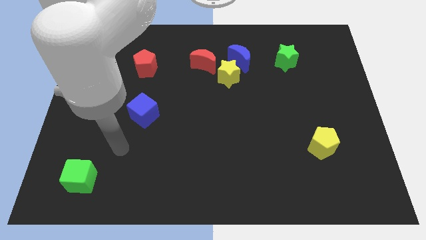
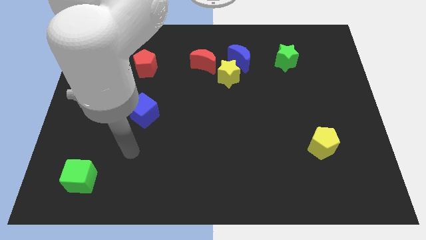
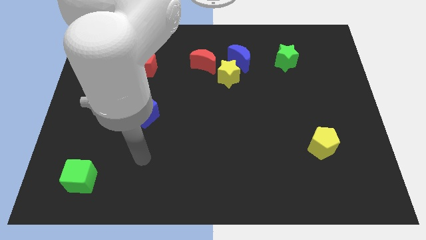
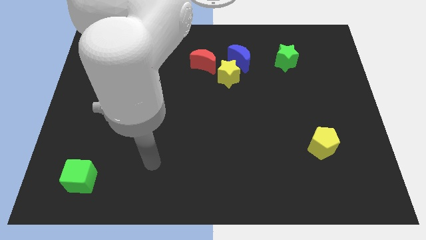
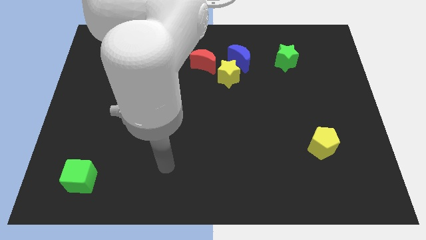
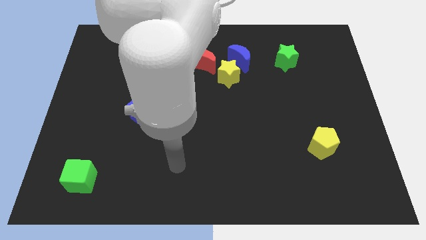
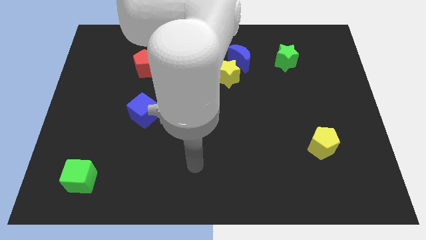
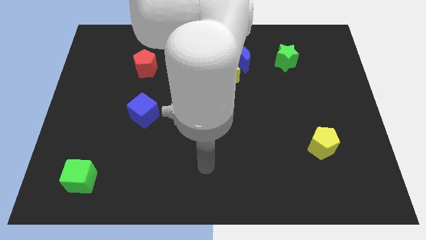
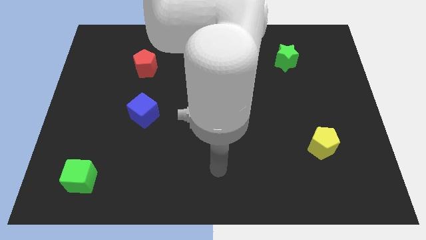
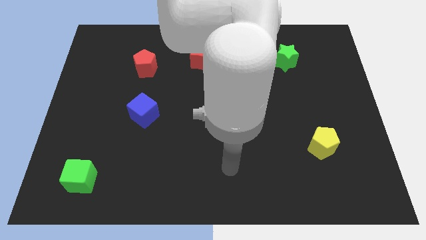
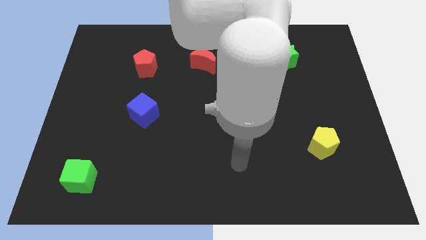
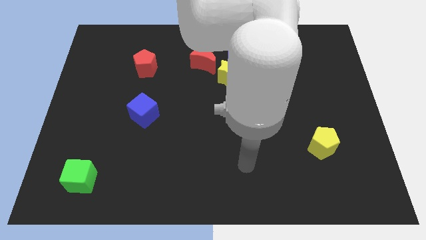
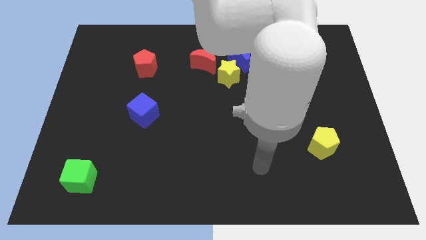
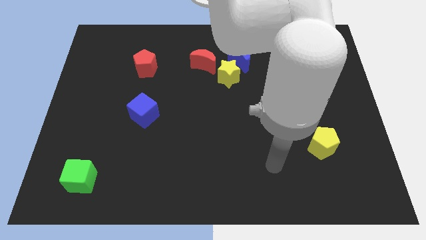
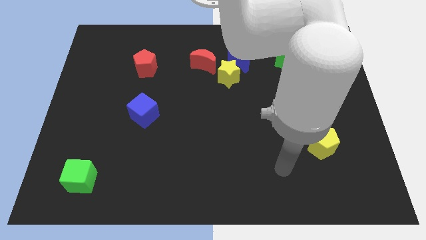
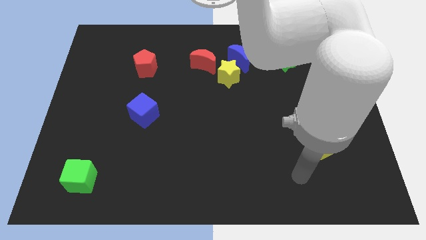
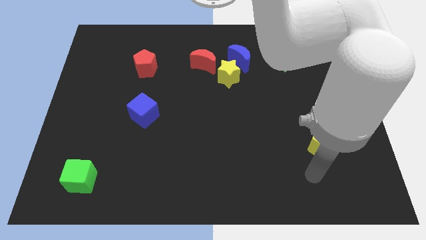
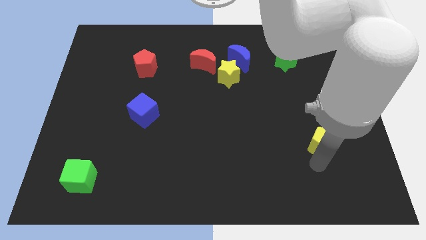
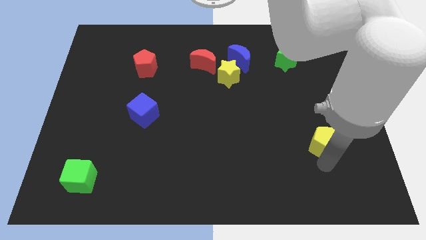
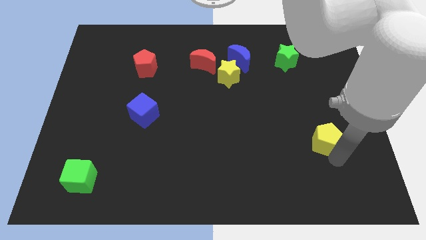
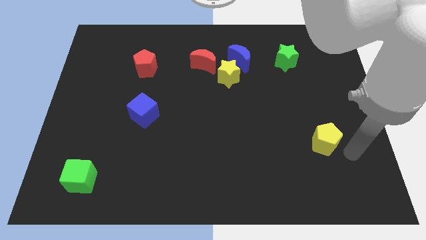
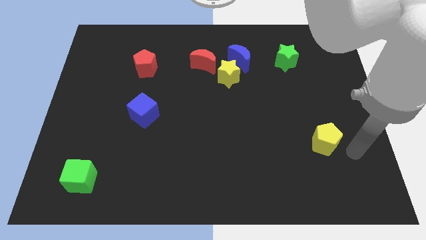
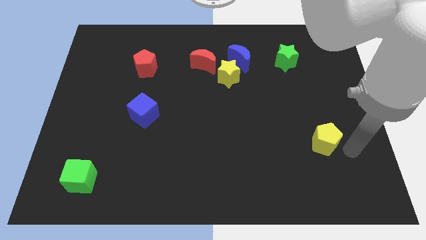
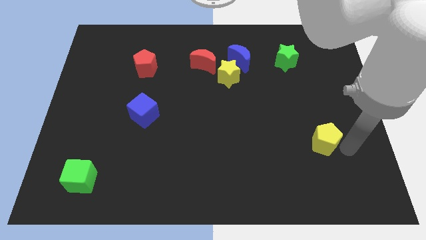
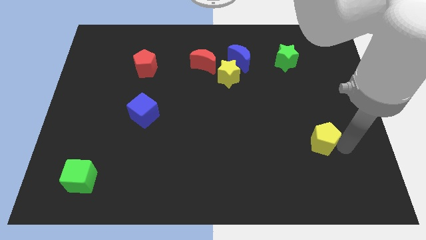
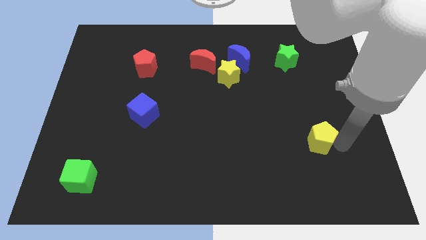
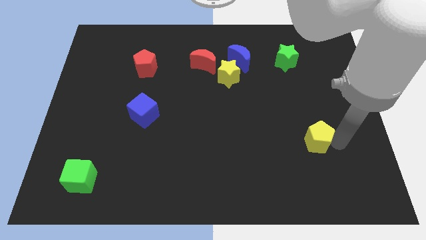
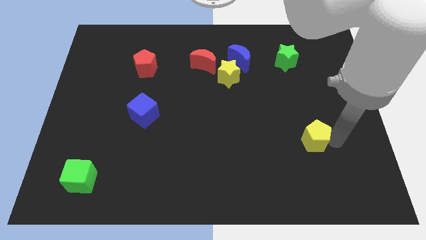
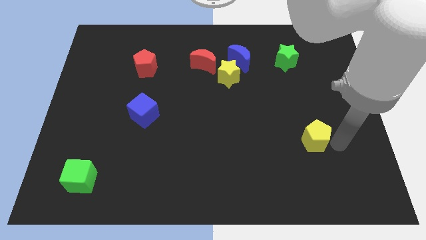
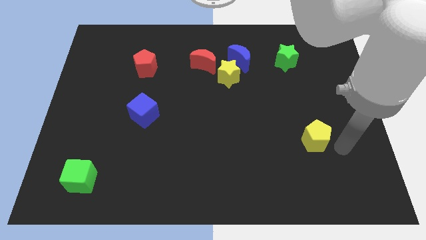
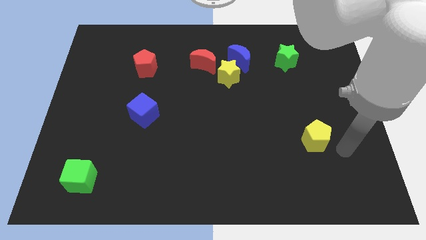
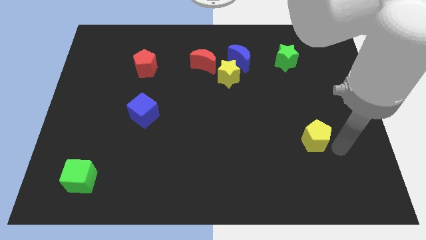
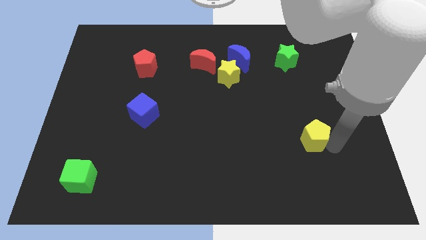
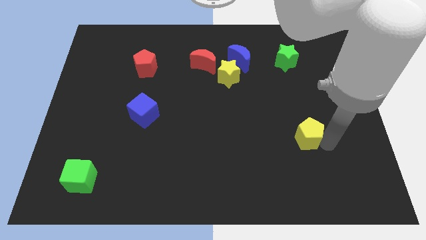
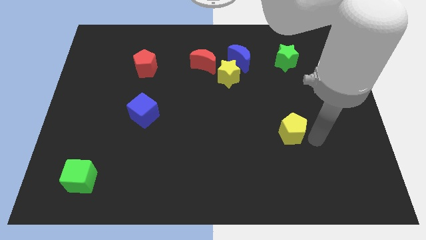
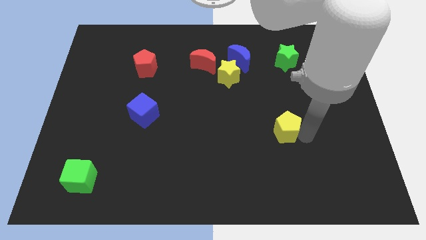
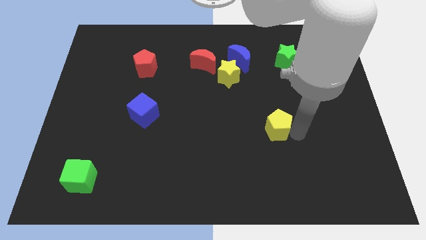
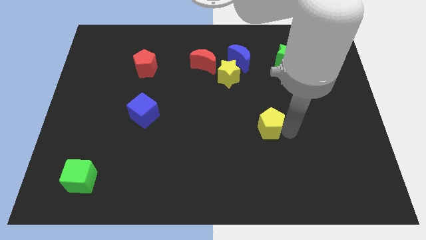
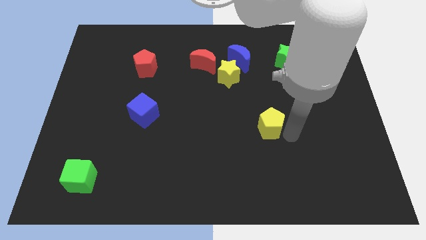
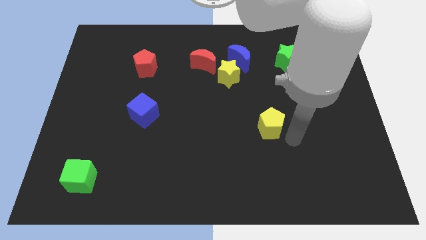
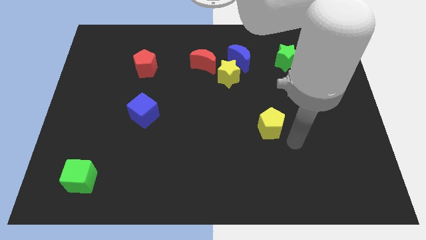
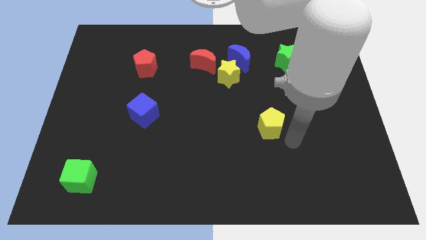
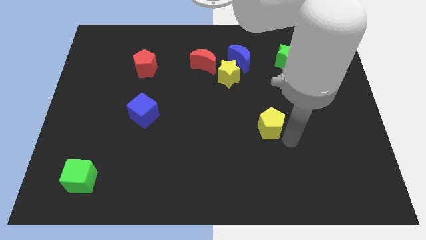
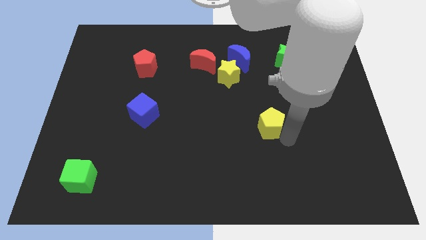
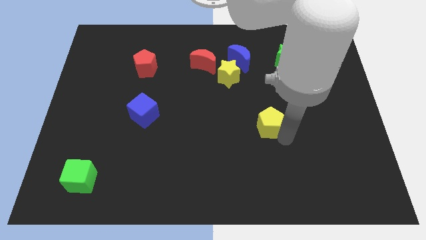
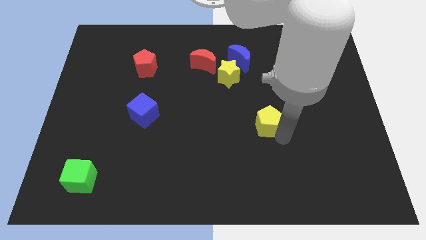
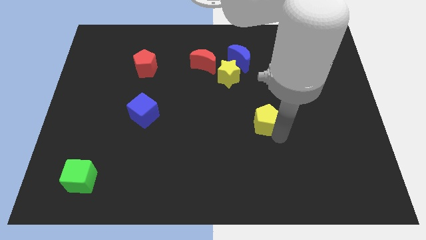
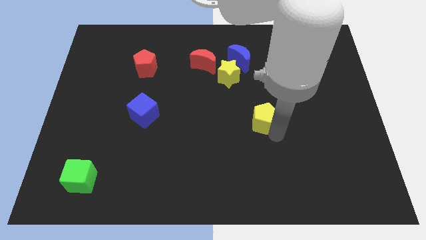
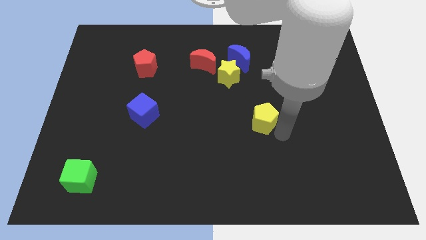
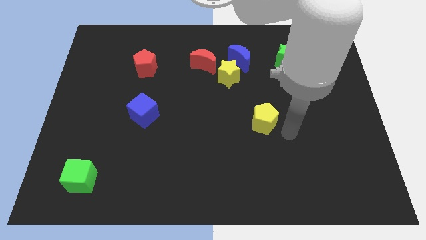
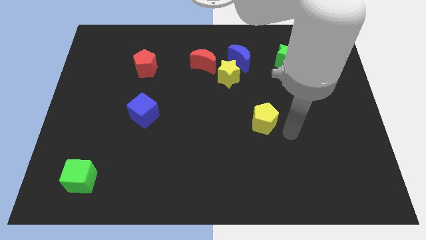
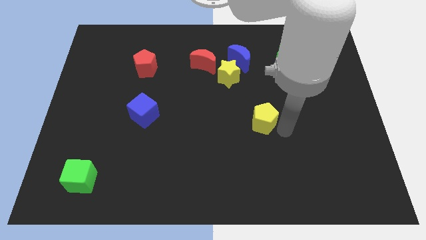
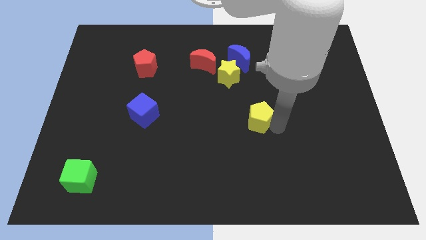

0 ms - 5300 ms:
put the yellow pentagon to the center of the board

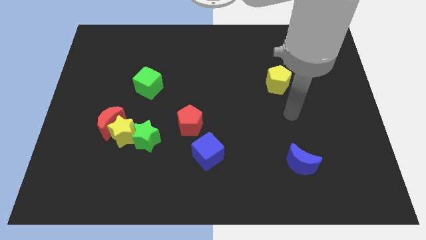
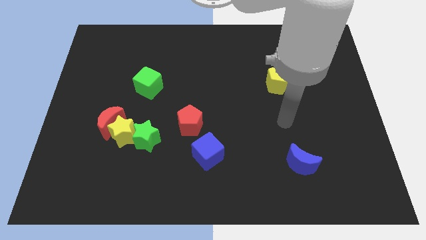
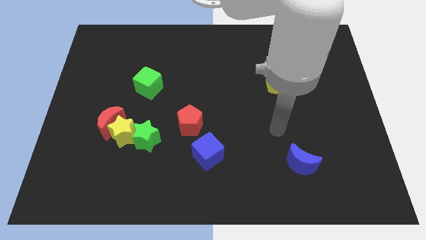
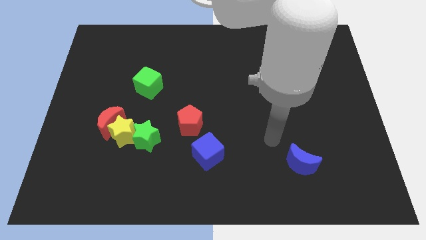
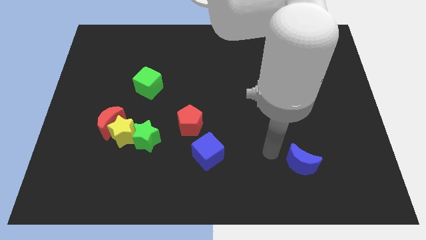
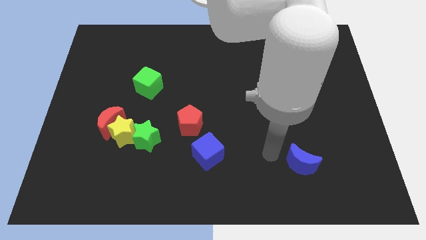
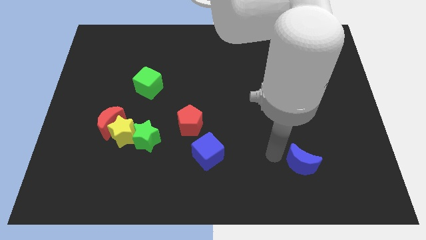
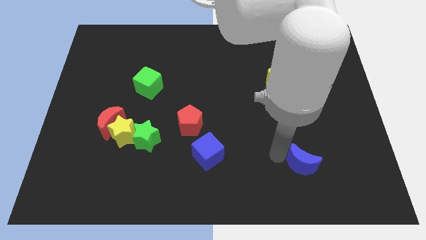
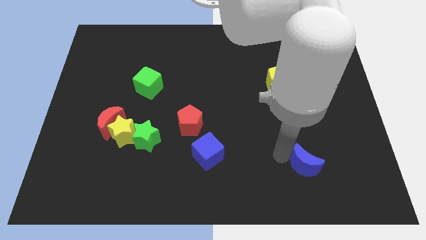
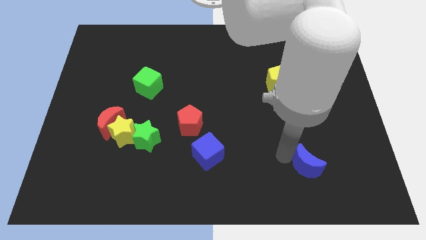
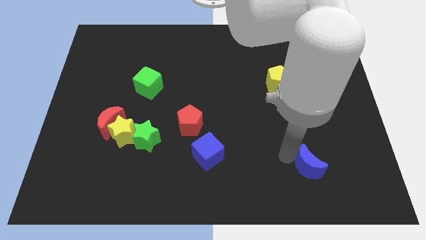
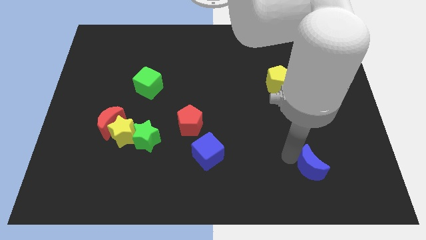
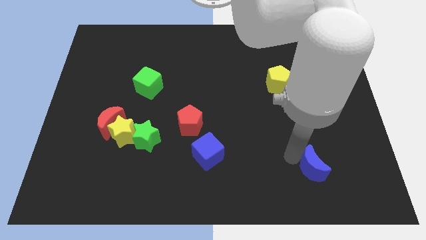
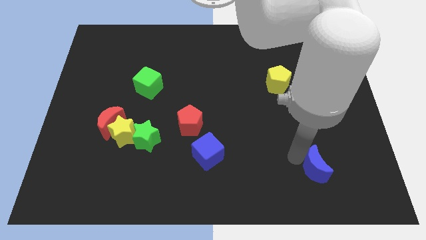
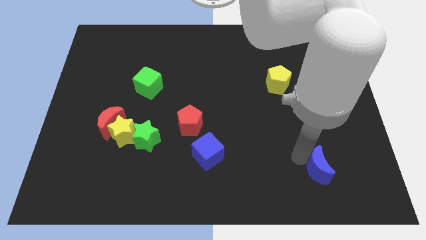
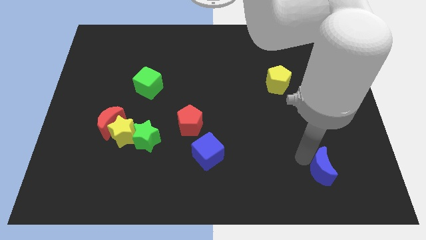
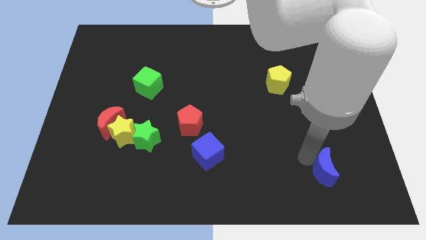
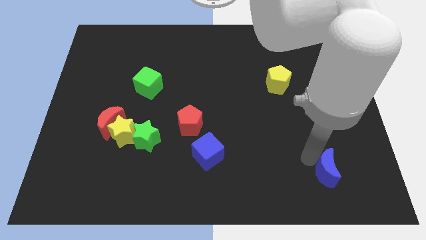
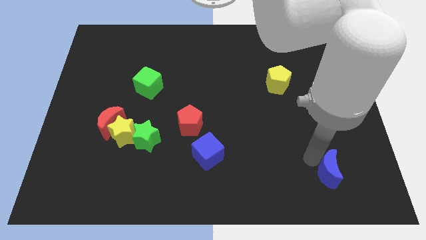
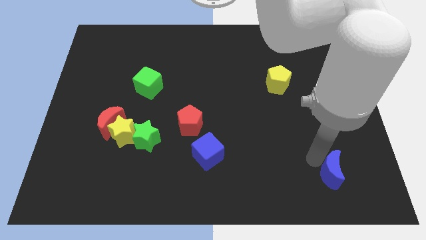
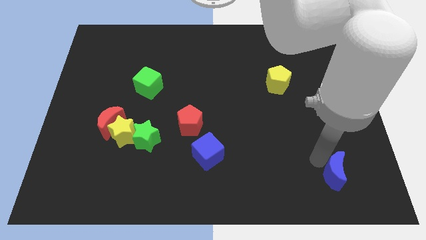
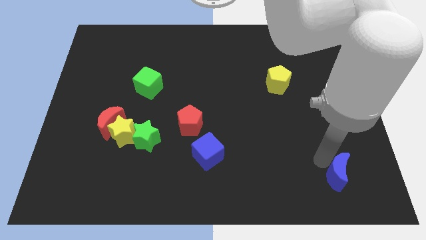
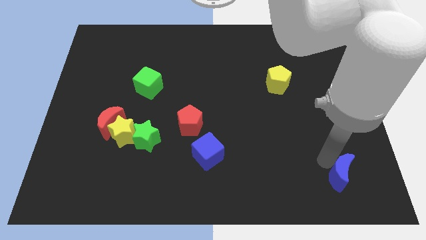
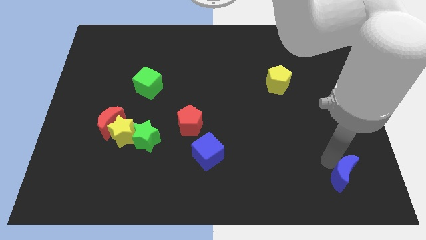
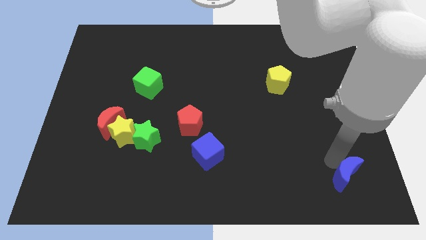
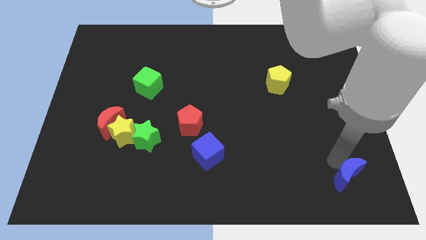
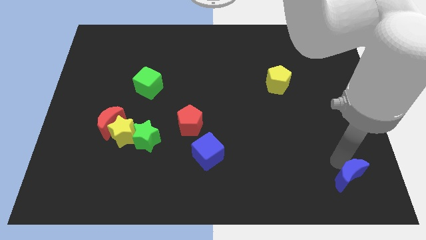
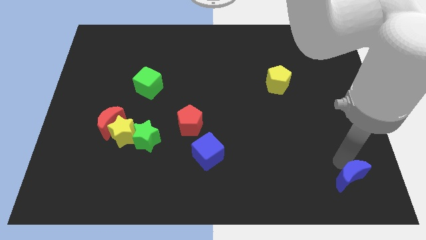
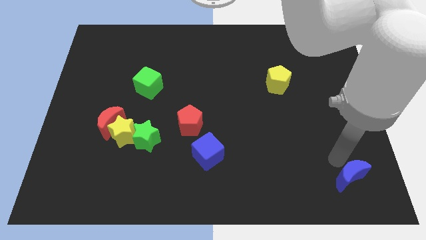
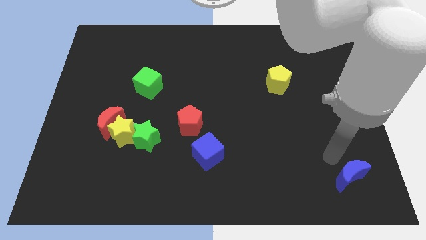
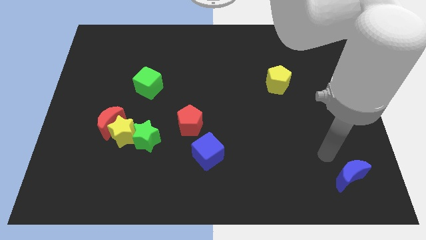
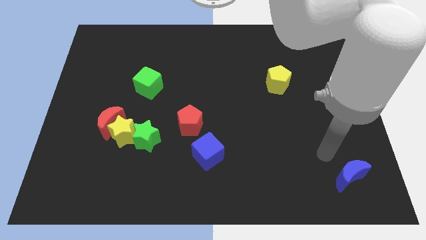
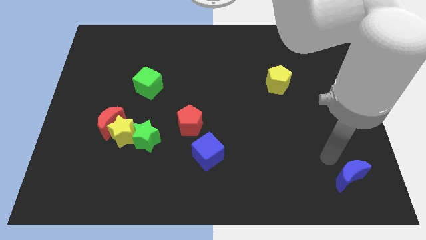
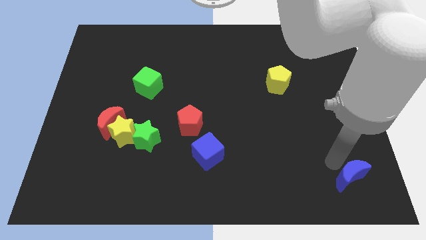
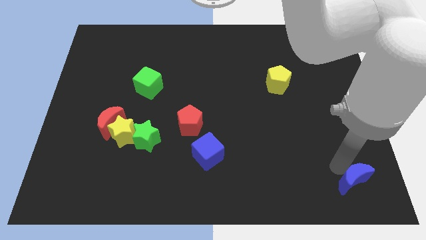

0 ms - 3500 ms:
put the blue moon to the bottom right corner
